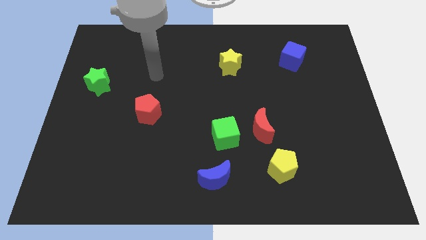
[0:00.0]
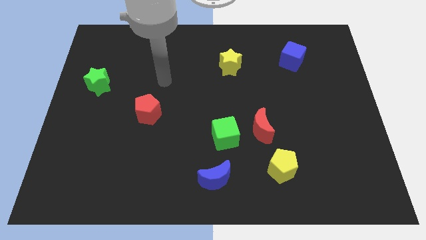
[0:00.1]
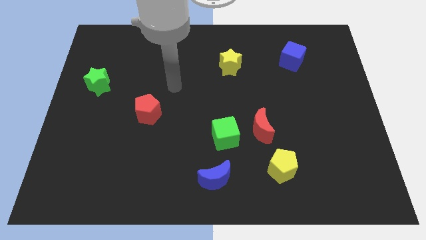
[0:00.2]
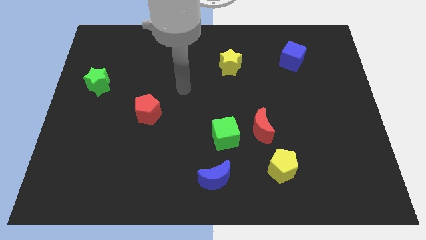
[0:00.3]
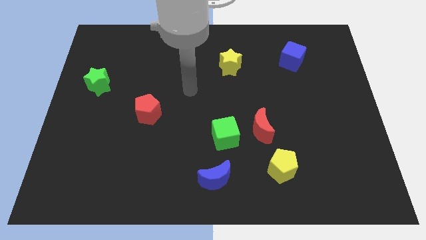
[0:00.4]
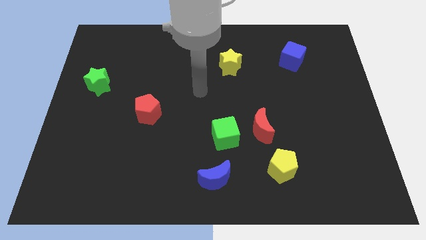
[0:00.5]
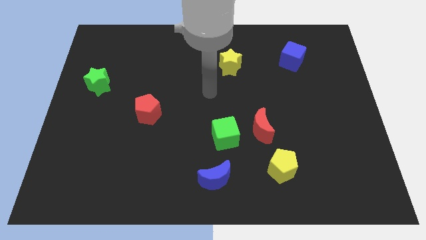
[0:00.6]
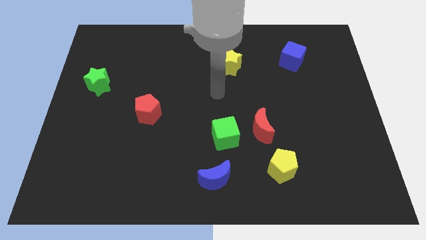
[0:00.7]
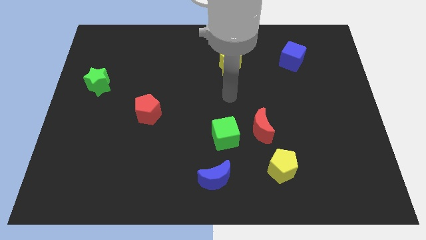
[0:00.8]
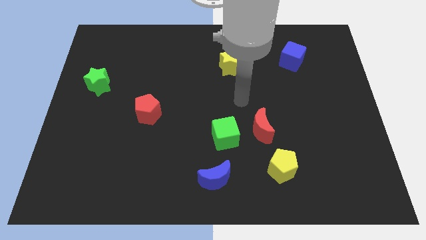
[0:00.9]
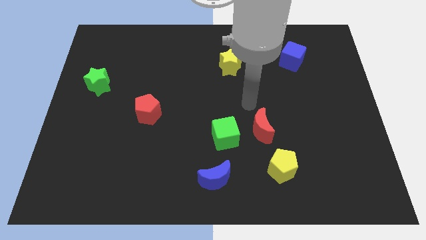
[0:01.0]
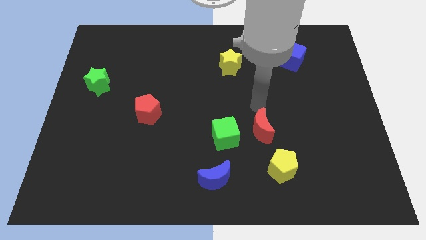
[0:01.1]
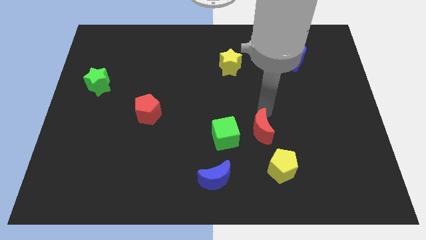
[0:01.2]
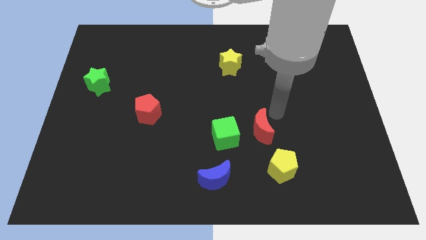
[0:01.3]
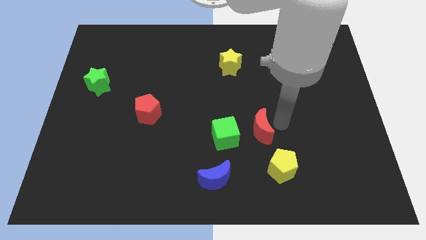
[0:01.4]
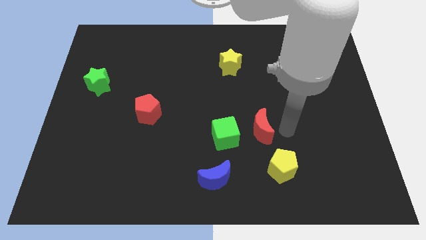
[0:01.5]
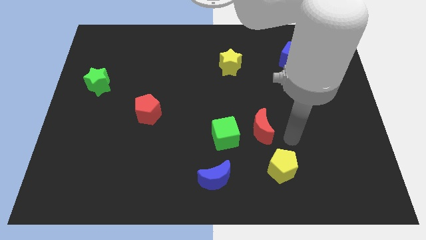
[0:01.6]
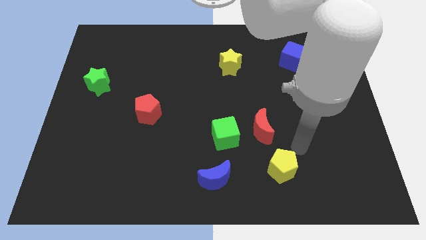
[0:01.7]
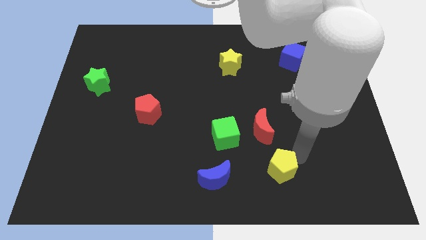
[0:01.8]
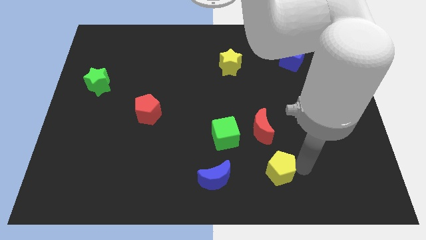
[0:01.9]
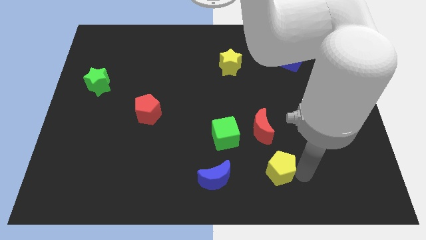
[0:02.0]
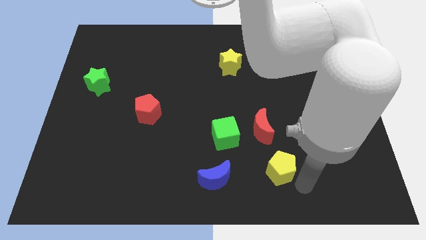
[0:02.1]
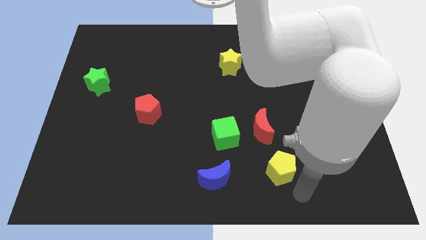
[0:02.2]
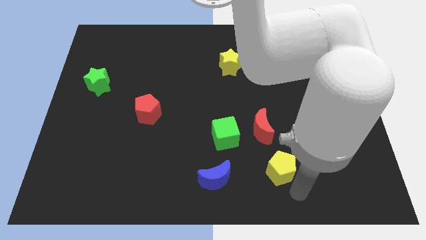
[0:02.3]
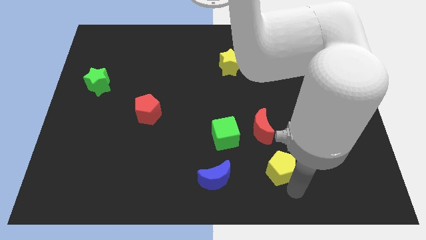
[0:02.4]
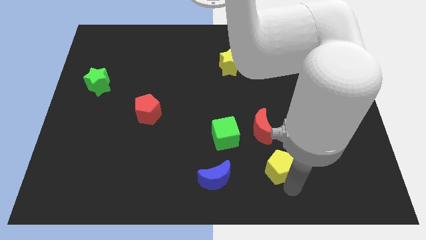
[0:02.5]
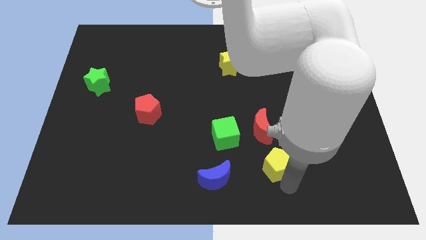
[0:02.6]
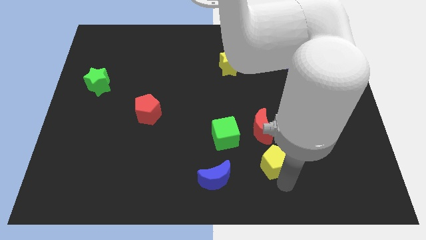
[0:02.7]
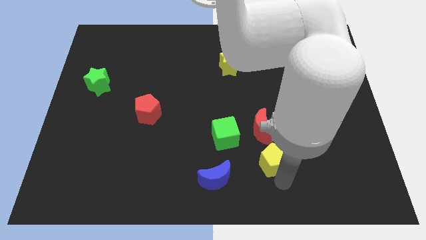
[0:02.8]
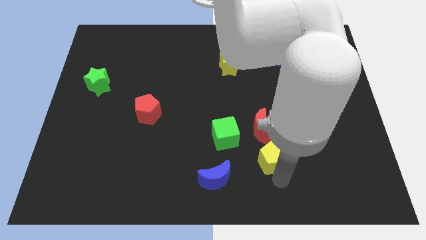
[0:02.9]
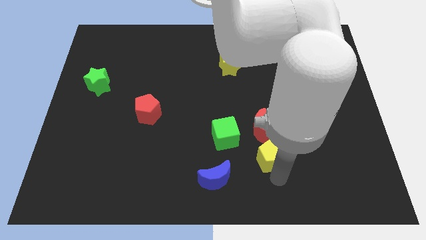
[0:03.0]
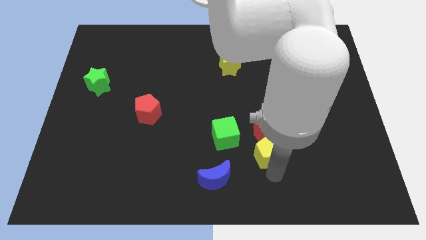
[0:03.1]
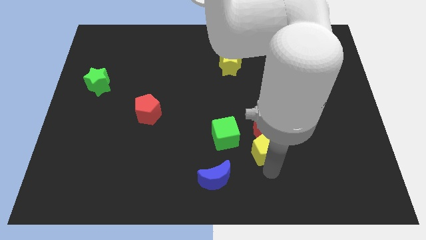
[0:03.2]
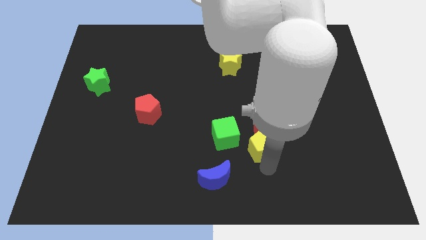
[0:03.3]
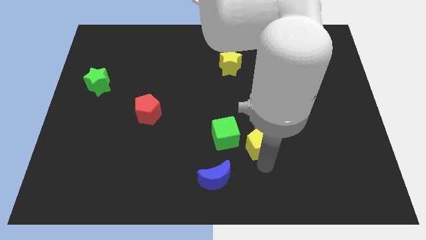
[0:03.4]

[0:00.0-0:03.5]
push the yellow pentagon somewhat upwards and to the left

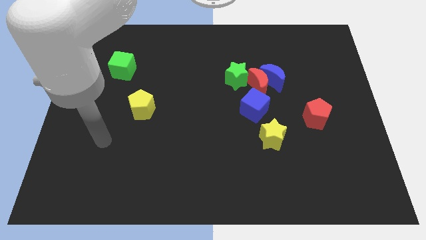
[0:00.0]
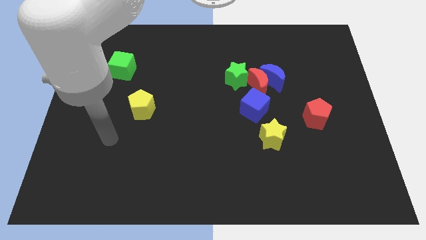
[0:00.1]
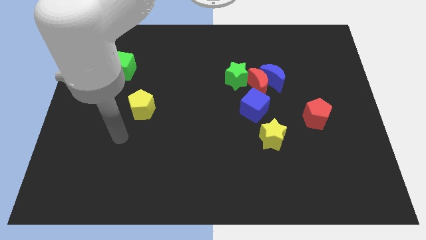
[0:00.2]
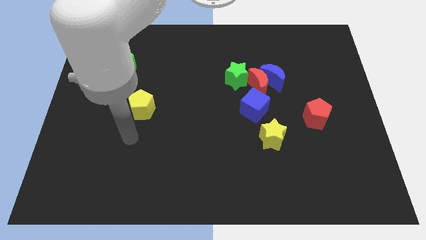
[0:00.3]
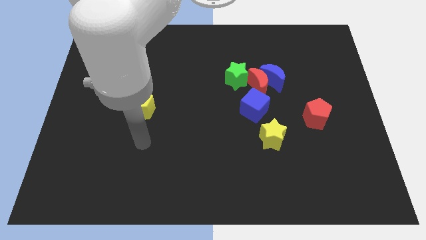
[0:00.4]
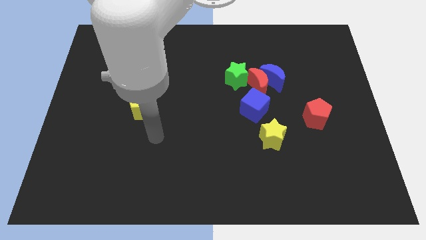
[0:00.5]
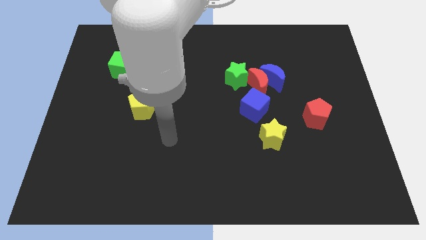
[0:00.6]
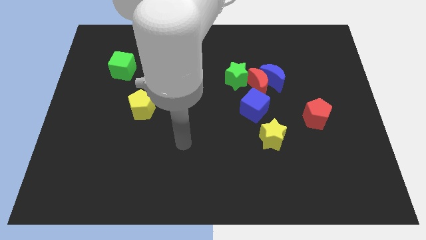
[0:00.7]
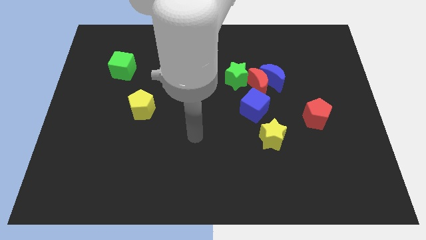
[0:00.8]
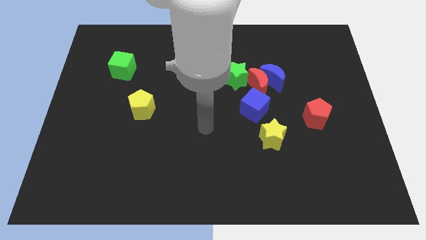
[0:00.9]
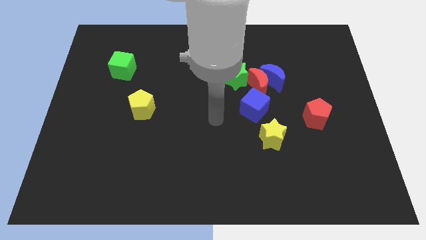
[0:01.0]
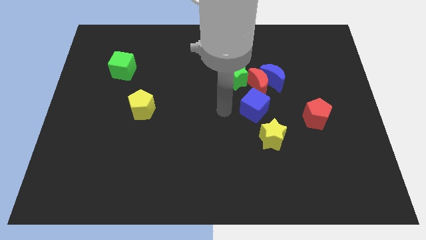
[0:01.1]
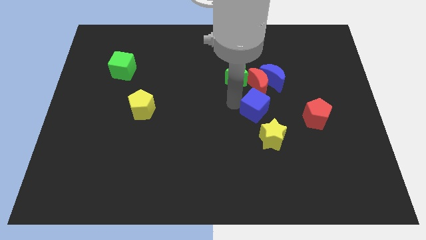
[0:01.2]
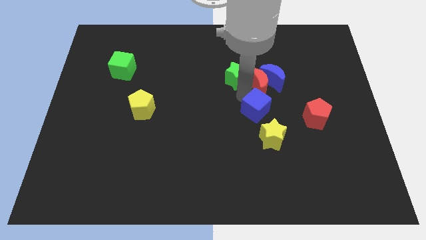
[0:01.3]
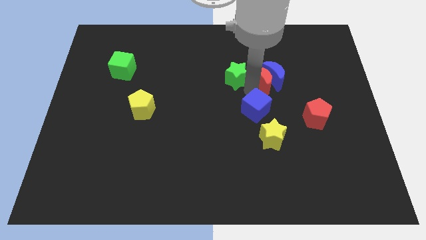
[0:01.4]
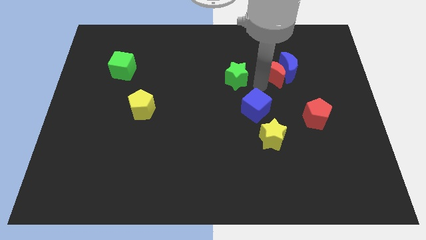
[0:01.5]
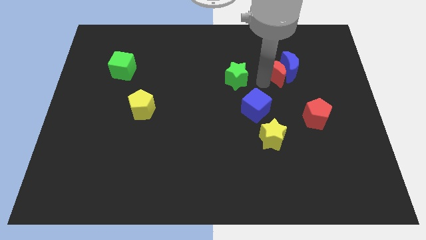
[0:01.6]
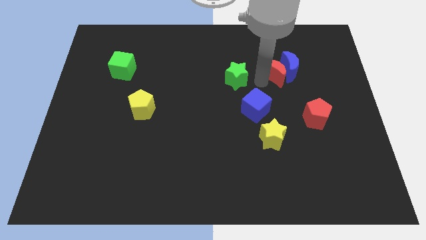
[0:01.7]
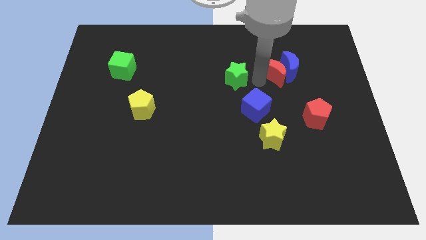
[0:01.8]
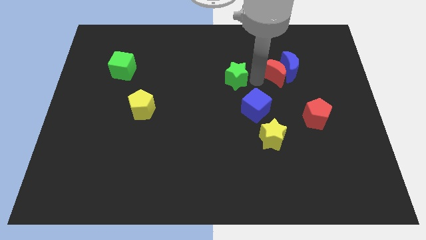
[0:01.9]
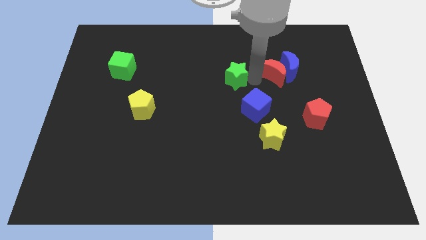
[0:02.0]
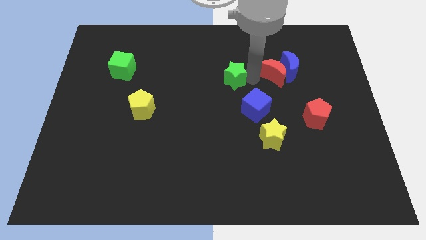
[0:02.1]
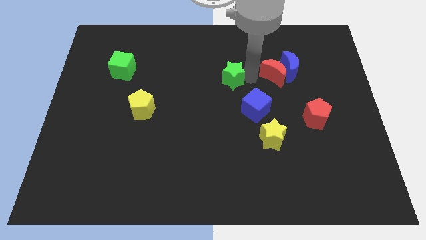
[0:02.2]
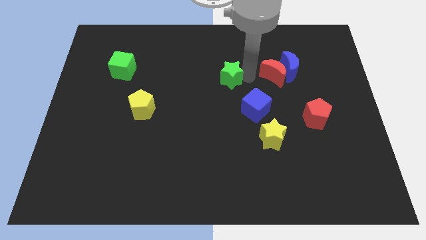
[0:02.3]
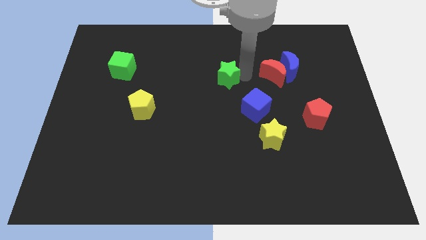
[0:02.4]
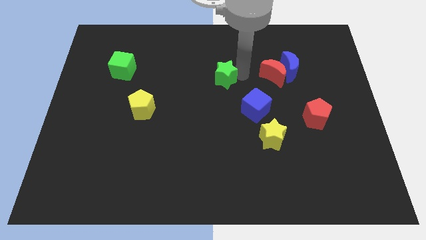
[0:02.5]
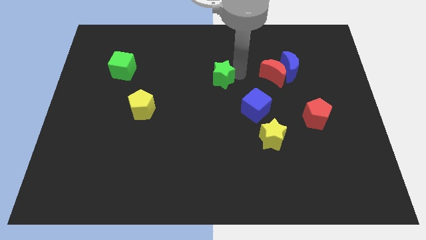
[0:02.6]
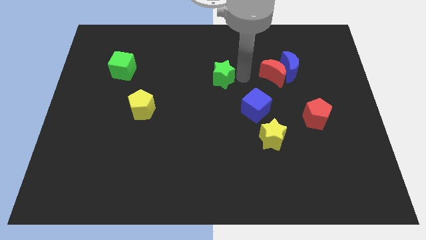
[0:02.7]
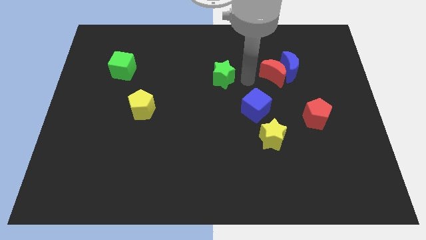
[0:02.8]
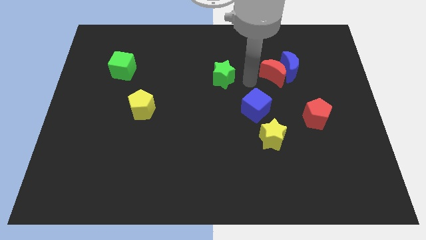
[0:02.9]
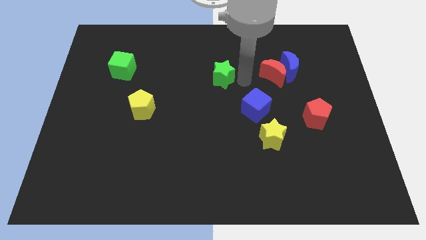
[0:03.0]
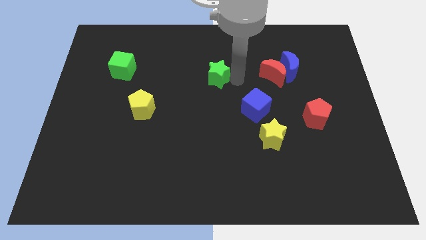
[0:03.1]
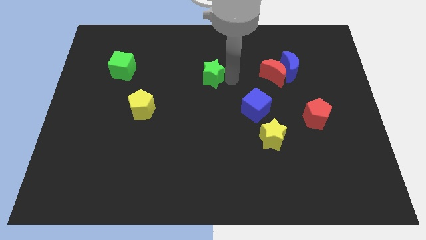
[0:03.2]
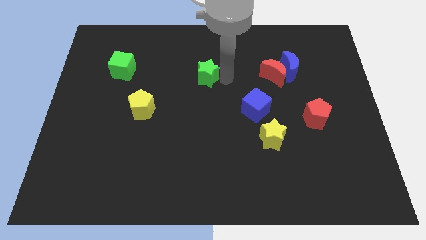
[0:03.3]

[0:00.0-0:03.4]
push the green star left a little bit

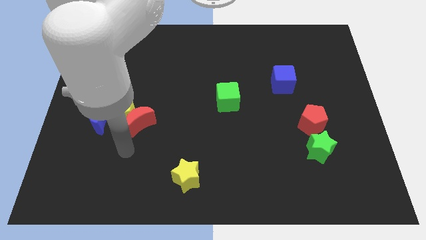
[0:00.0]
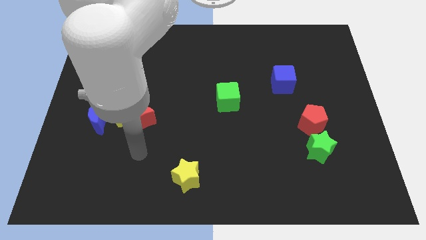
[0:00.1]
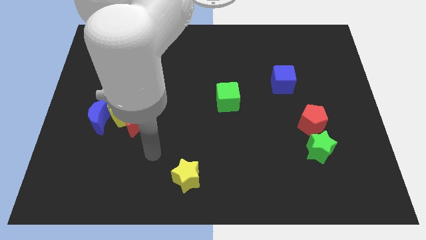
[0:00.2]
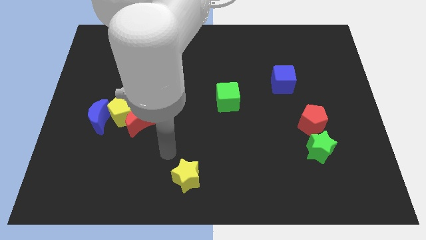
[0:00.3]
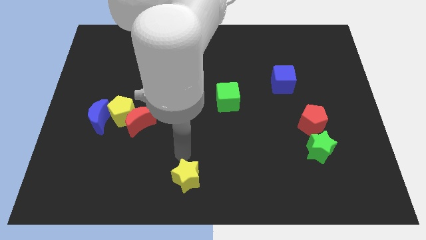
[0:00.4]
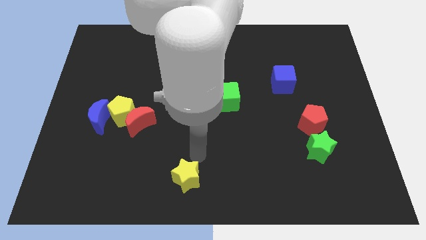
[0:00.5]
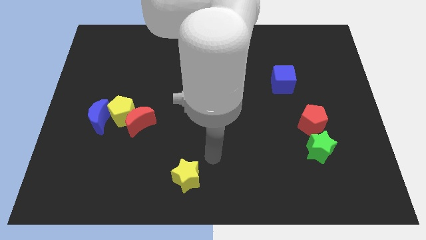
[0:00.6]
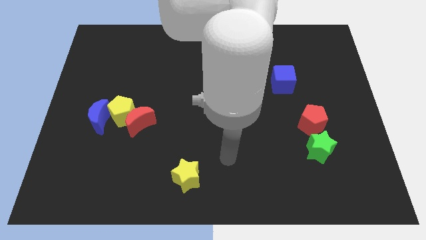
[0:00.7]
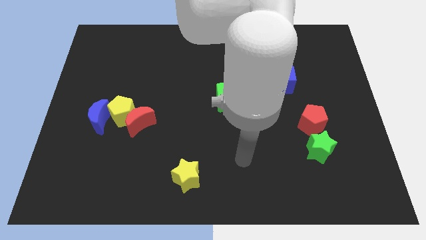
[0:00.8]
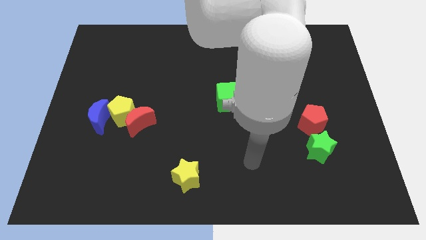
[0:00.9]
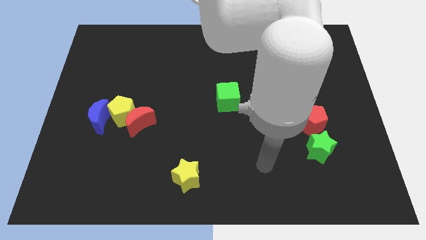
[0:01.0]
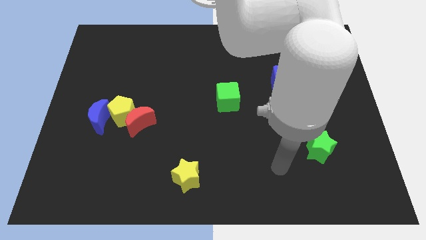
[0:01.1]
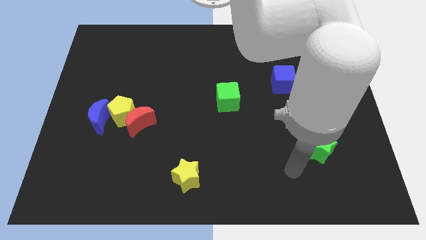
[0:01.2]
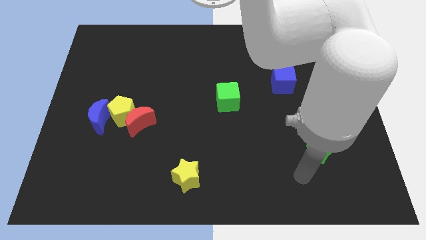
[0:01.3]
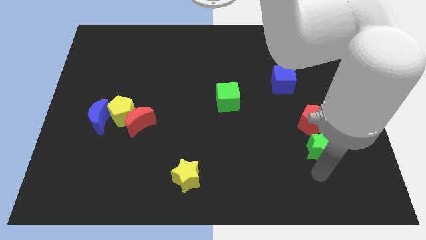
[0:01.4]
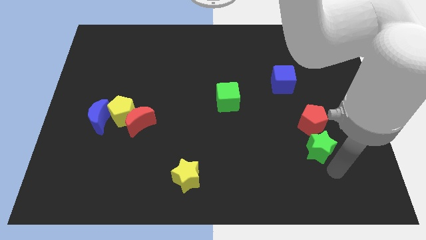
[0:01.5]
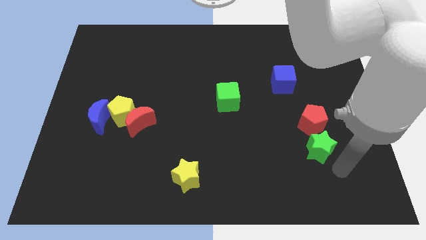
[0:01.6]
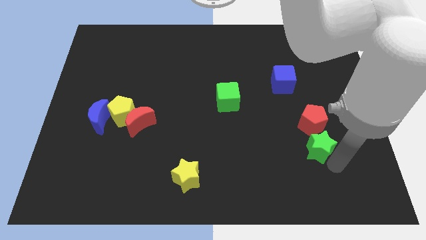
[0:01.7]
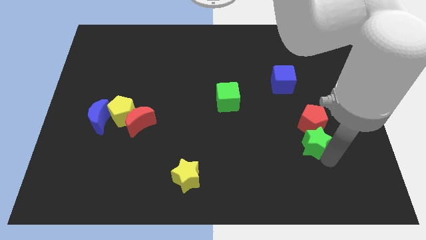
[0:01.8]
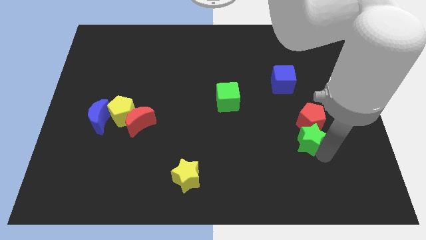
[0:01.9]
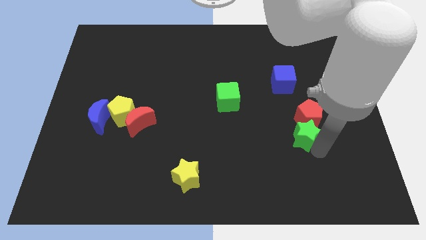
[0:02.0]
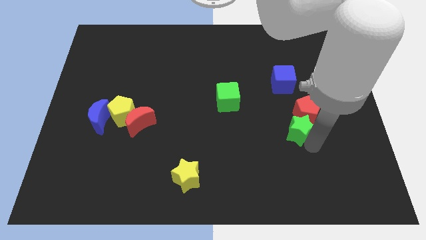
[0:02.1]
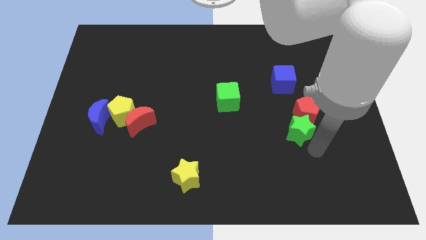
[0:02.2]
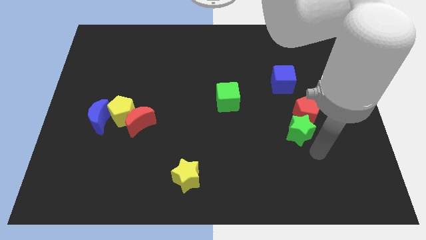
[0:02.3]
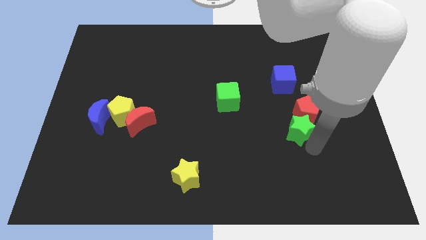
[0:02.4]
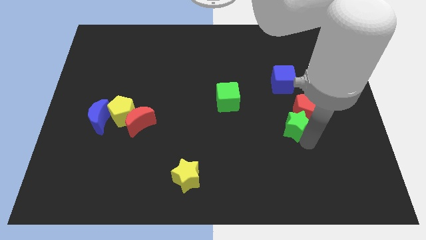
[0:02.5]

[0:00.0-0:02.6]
slightly slide the green star up and then left
